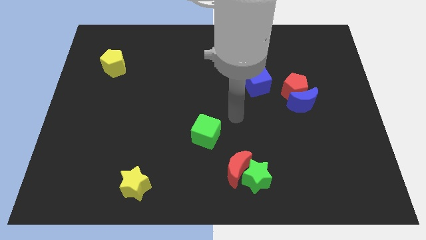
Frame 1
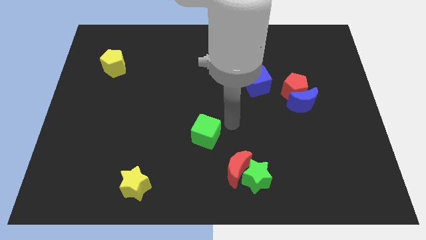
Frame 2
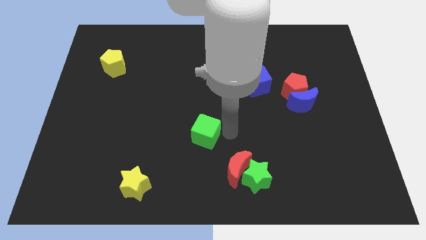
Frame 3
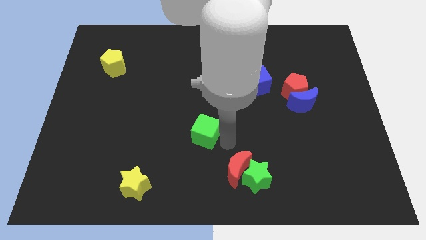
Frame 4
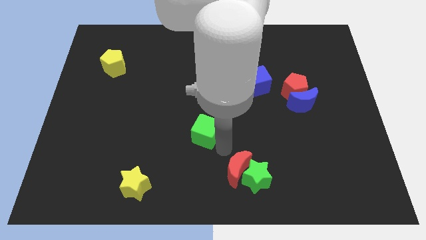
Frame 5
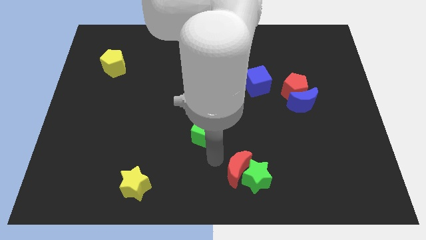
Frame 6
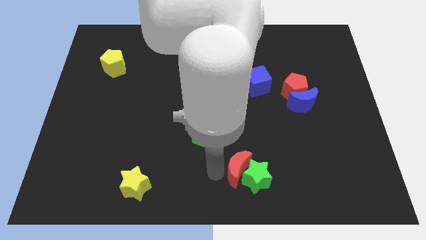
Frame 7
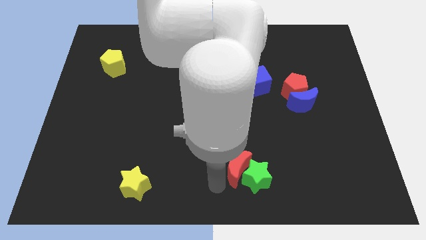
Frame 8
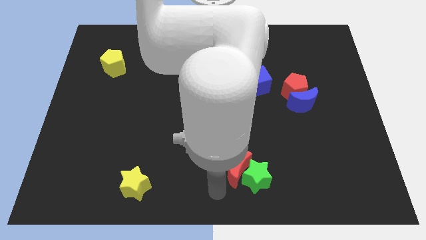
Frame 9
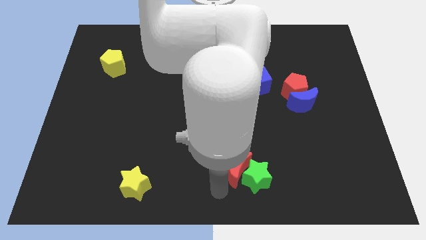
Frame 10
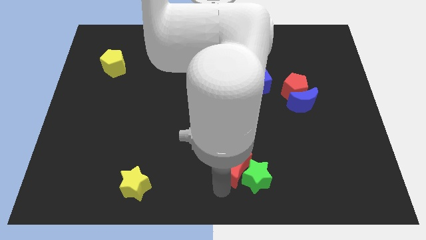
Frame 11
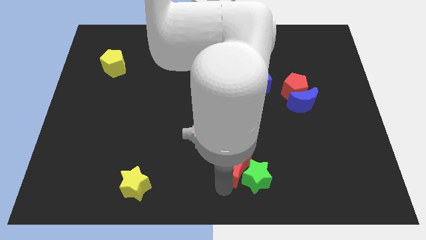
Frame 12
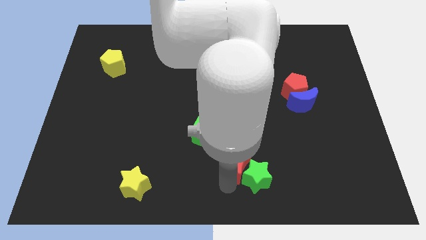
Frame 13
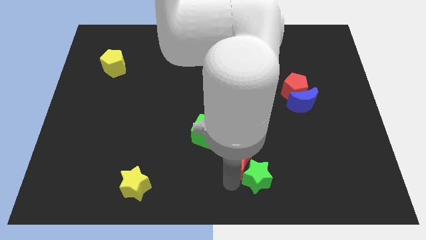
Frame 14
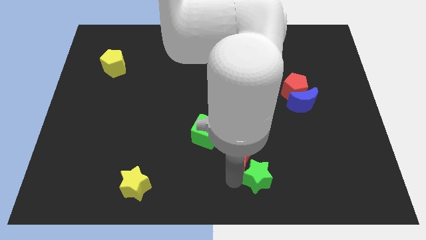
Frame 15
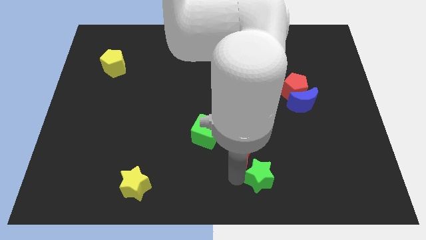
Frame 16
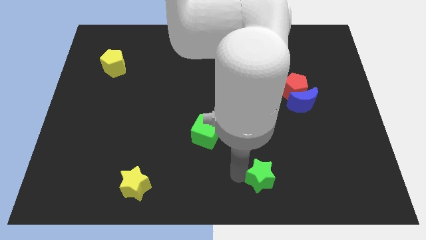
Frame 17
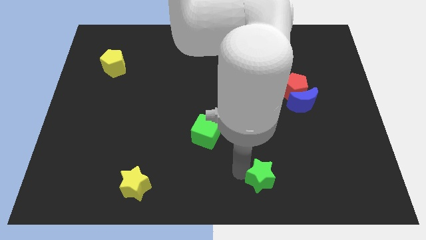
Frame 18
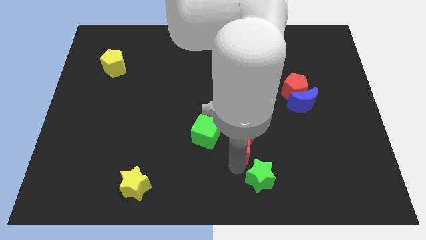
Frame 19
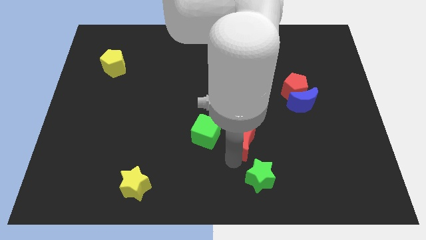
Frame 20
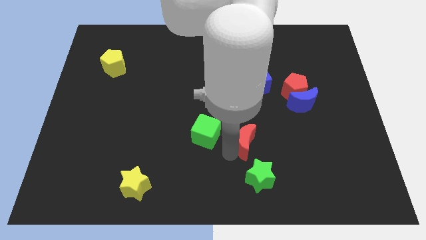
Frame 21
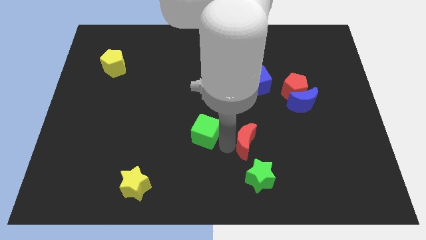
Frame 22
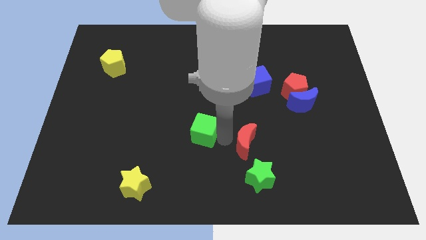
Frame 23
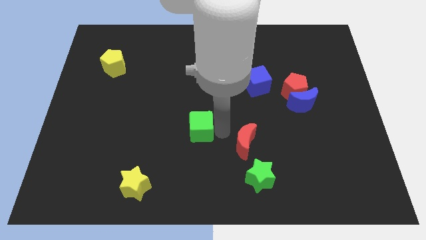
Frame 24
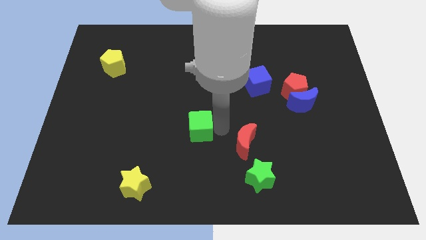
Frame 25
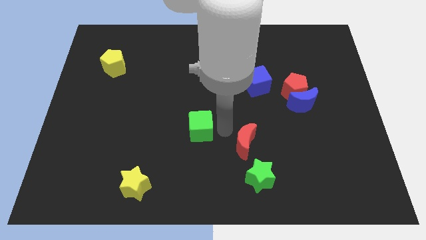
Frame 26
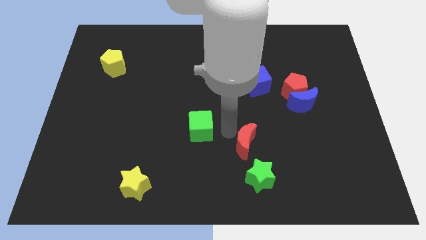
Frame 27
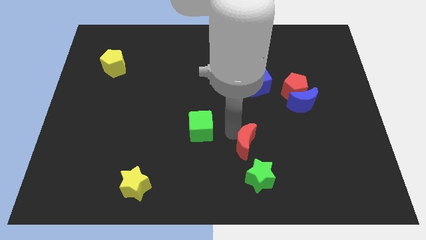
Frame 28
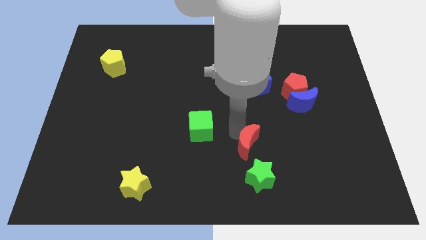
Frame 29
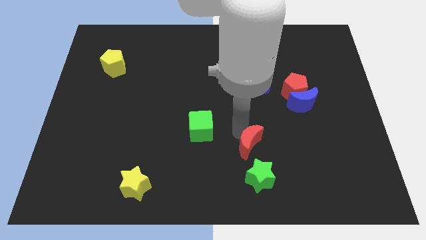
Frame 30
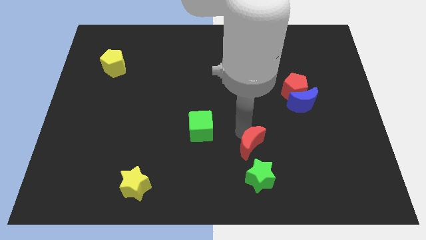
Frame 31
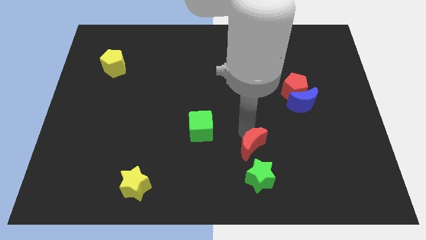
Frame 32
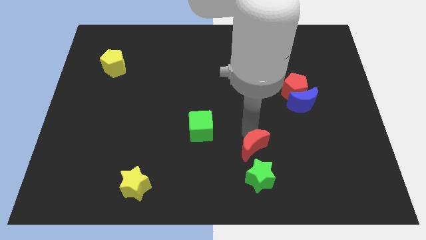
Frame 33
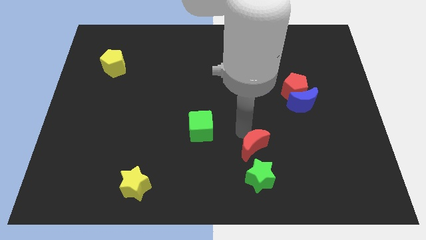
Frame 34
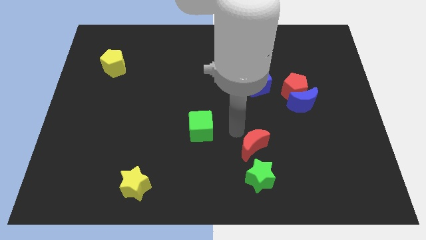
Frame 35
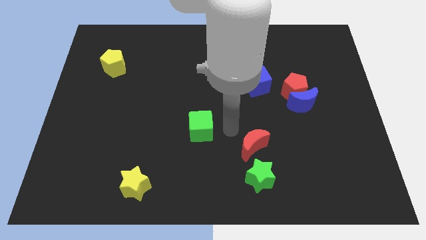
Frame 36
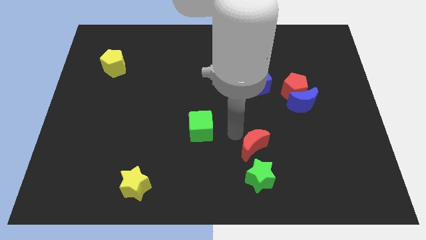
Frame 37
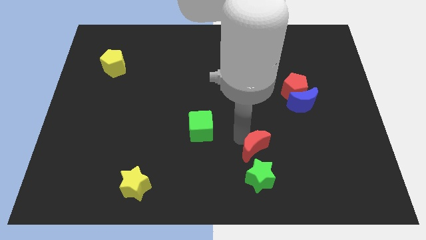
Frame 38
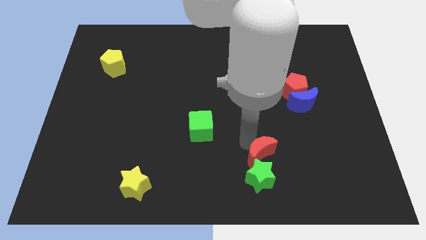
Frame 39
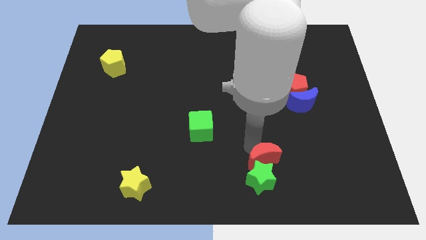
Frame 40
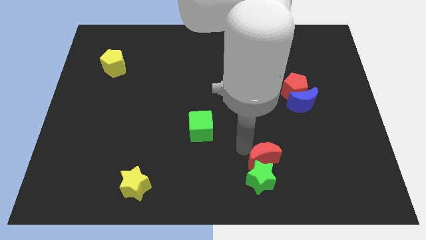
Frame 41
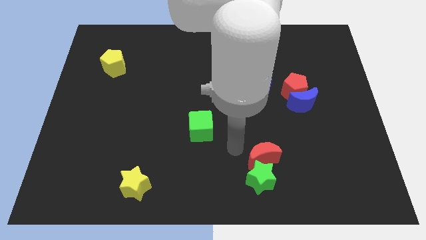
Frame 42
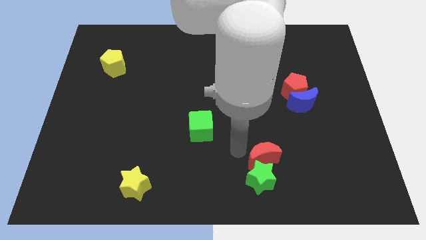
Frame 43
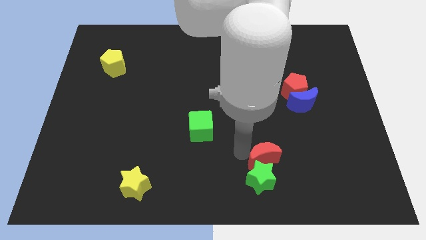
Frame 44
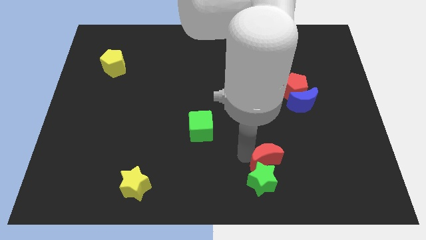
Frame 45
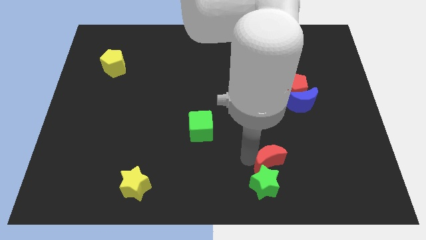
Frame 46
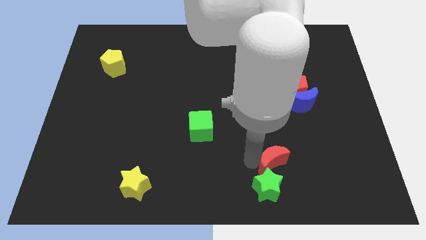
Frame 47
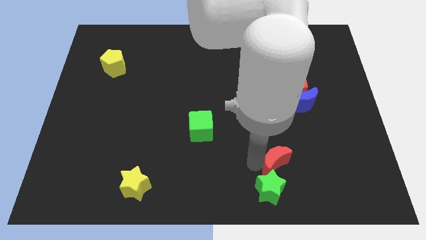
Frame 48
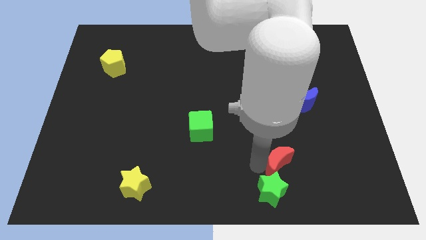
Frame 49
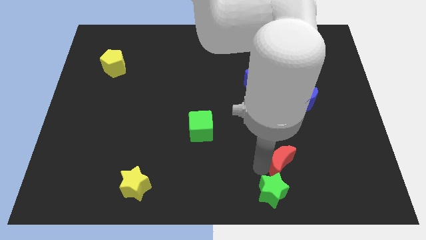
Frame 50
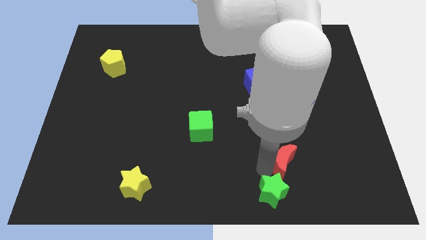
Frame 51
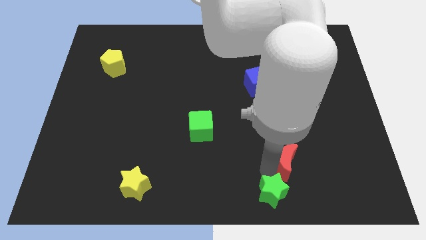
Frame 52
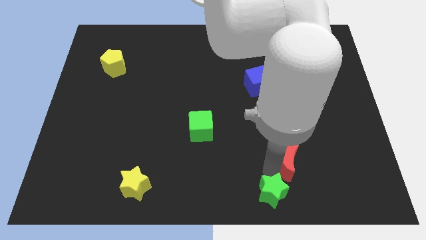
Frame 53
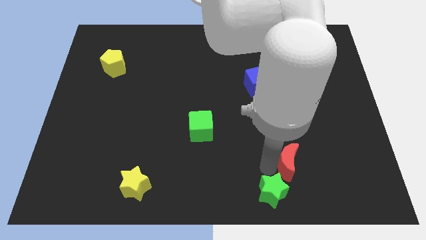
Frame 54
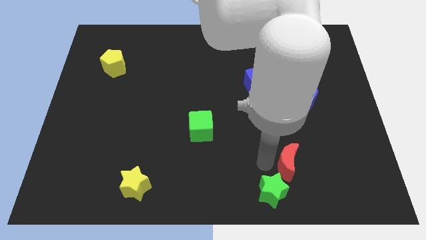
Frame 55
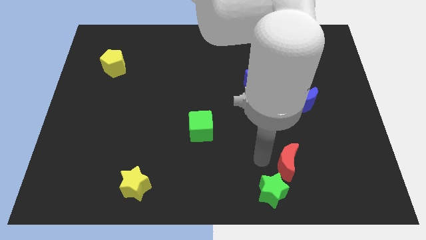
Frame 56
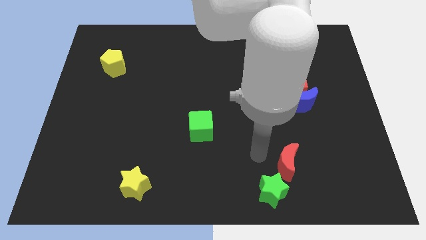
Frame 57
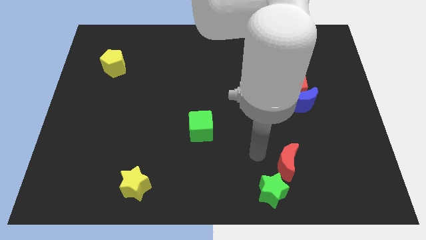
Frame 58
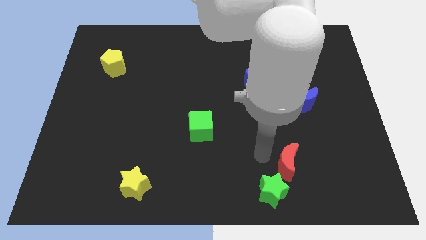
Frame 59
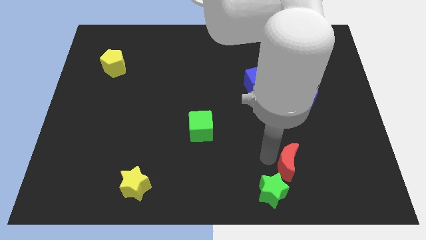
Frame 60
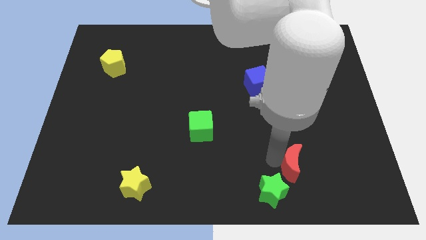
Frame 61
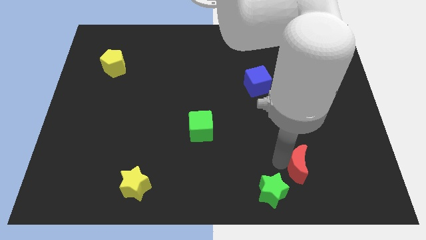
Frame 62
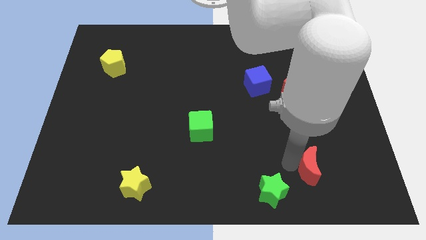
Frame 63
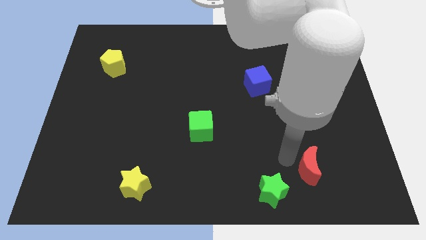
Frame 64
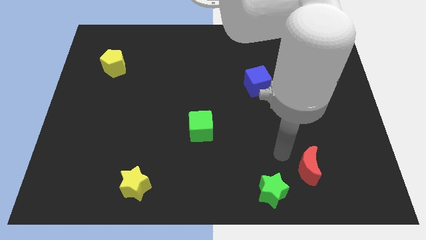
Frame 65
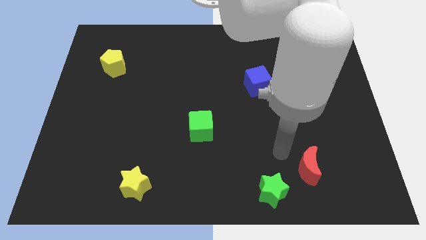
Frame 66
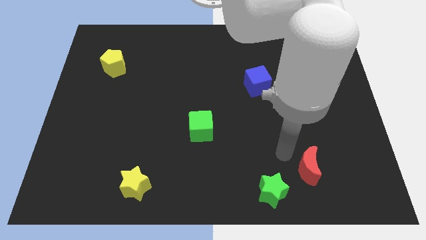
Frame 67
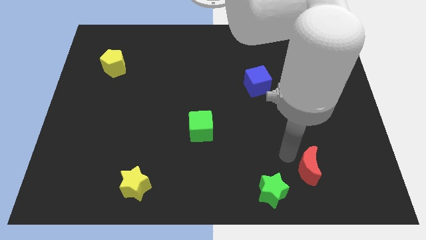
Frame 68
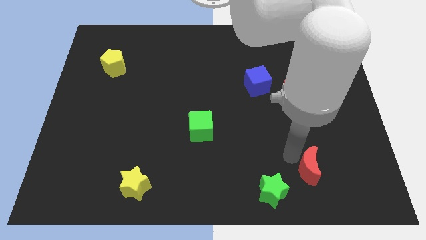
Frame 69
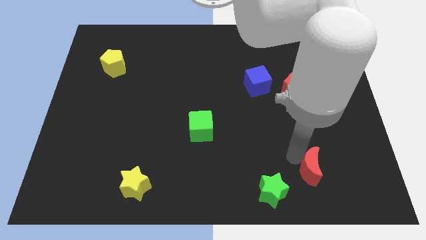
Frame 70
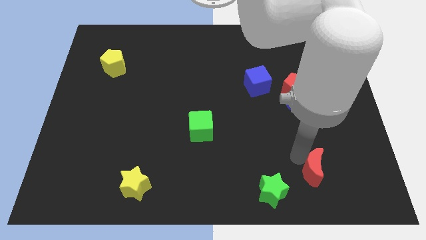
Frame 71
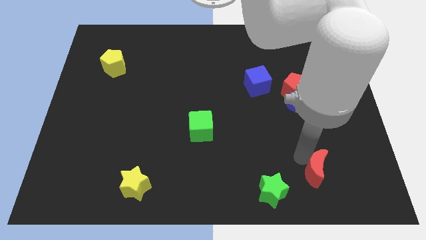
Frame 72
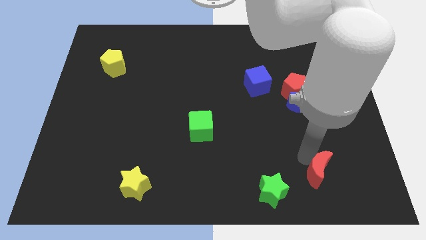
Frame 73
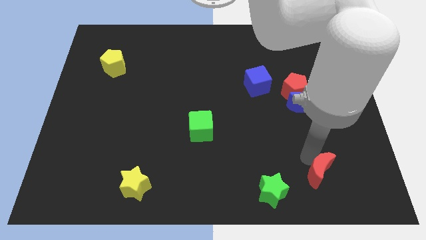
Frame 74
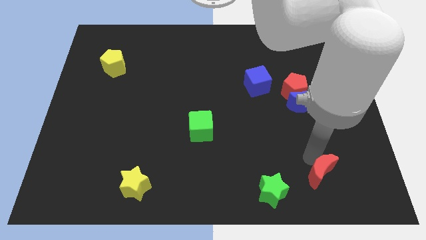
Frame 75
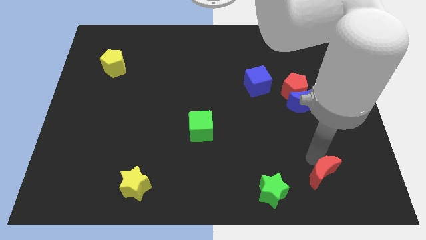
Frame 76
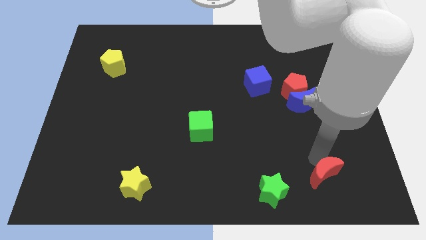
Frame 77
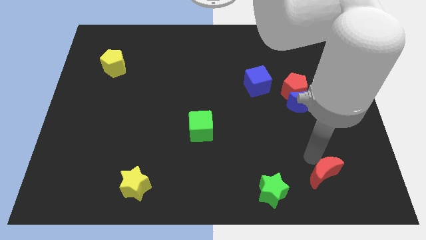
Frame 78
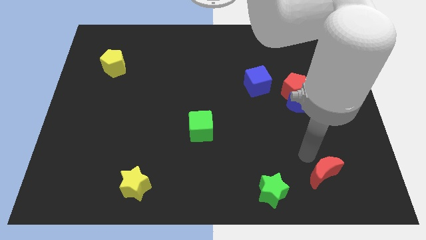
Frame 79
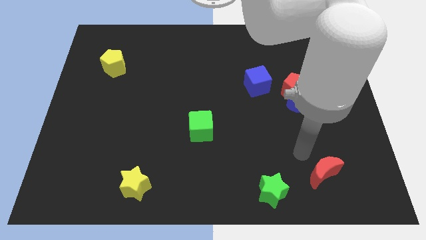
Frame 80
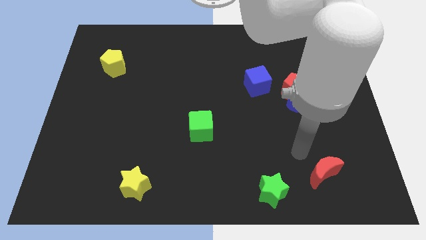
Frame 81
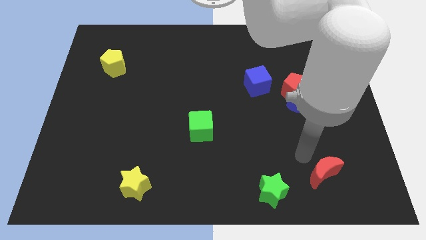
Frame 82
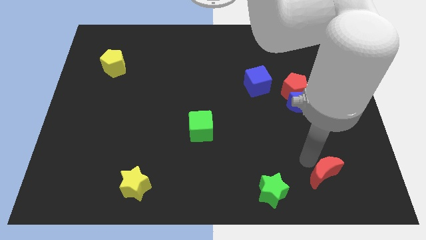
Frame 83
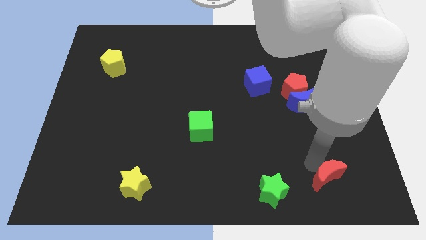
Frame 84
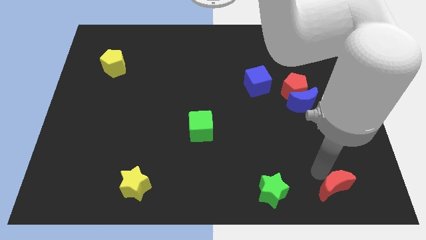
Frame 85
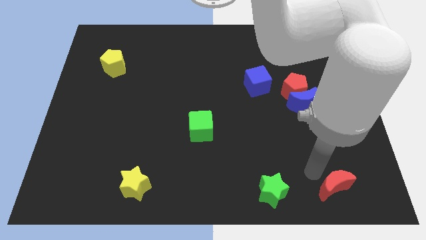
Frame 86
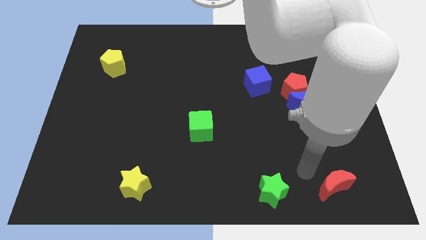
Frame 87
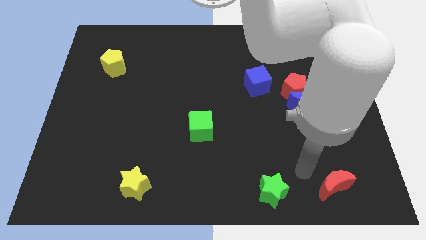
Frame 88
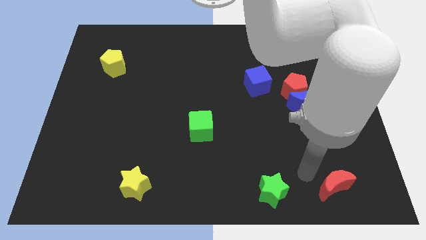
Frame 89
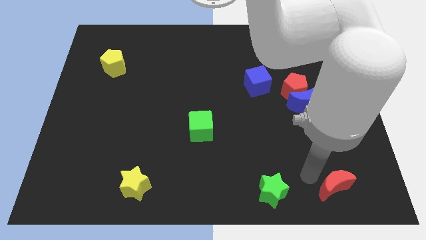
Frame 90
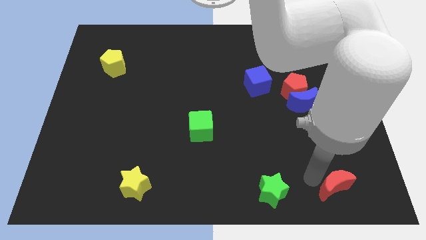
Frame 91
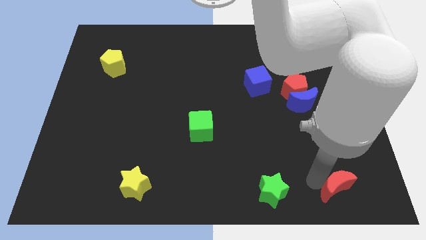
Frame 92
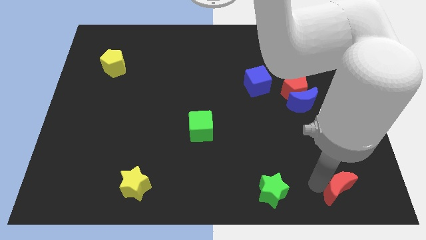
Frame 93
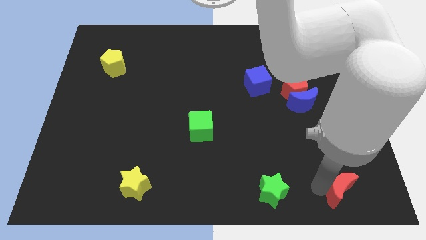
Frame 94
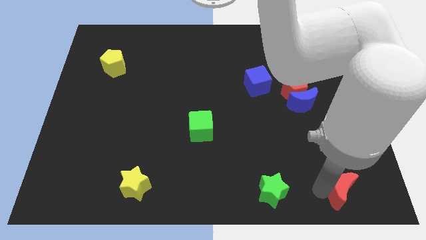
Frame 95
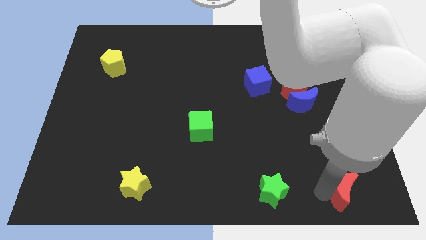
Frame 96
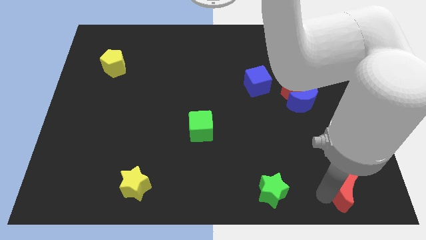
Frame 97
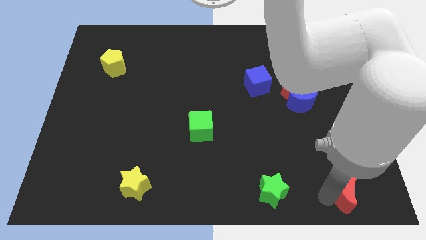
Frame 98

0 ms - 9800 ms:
push the red moon to the bottom right corner
